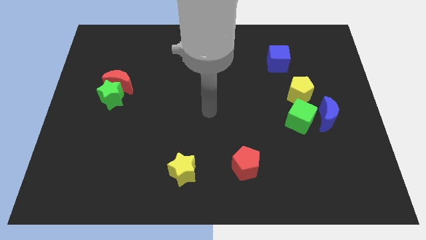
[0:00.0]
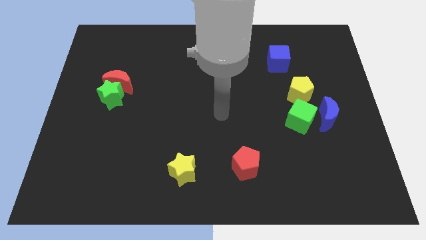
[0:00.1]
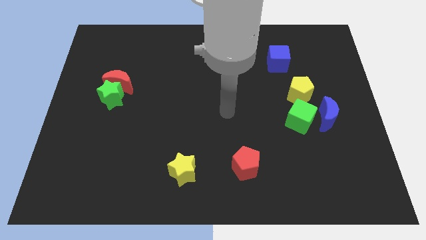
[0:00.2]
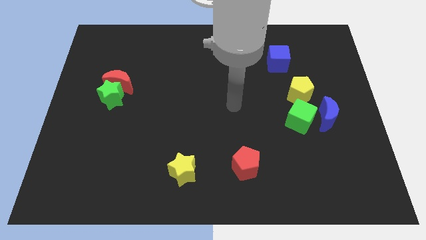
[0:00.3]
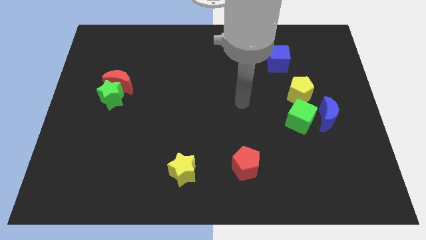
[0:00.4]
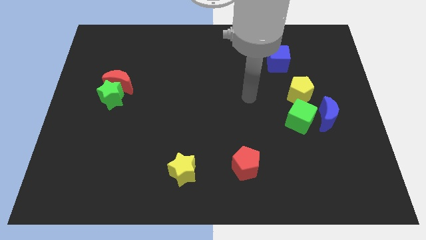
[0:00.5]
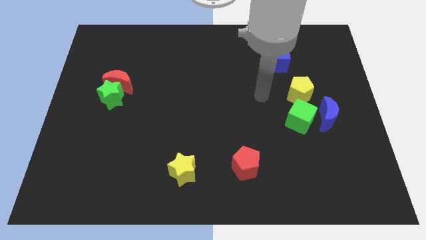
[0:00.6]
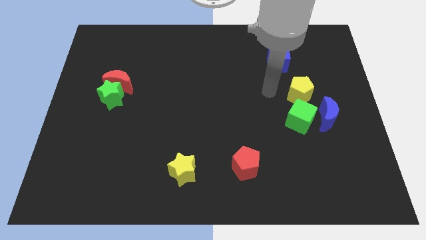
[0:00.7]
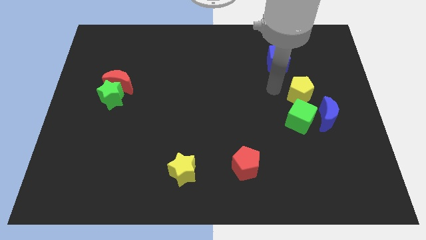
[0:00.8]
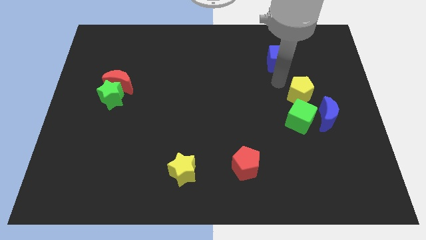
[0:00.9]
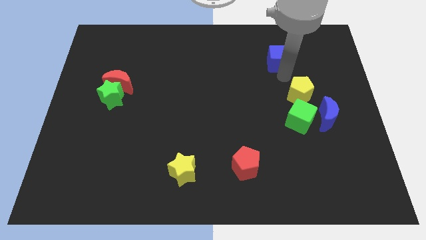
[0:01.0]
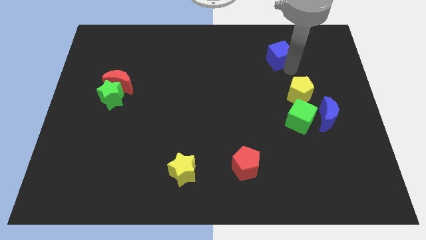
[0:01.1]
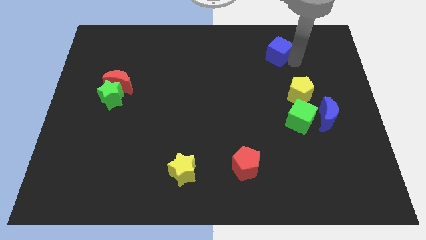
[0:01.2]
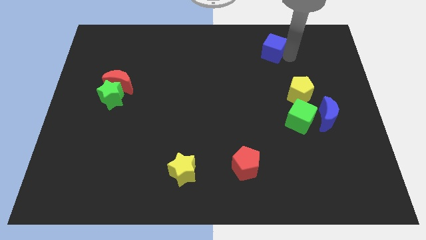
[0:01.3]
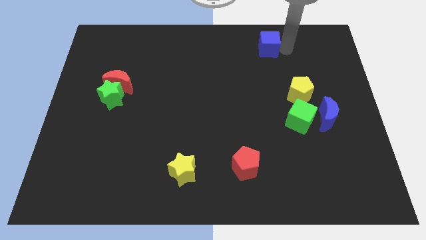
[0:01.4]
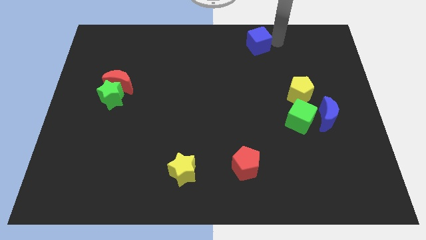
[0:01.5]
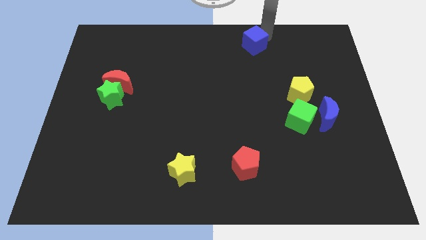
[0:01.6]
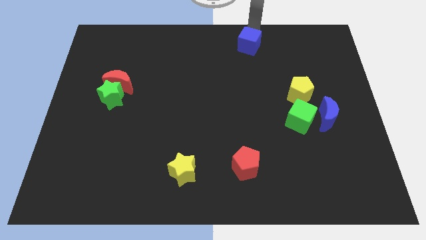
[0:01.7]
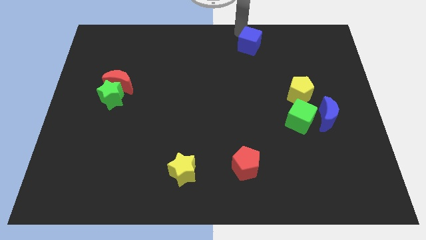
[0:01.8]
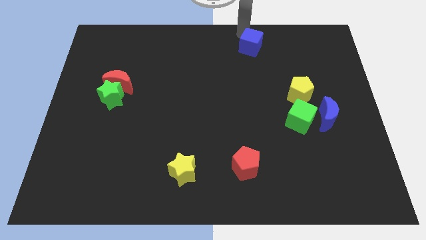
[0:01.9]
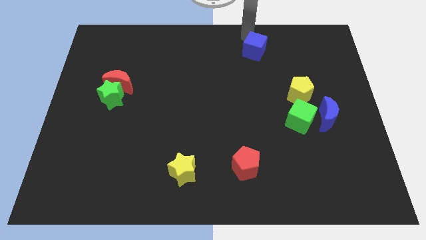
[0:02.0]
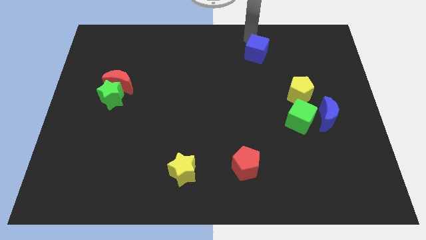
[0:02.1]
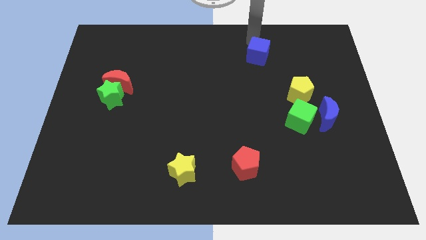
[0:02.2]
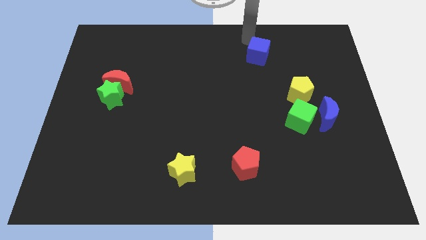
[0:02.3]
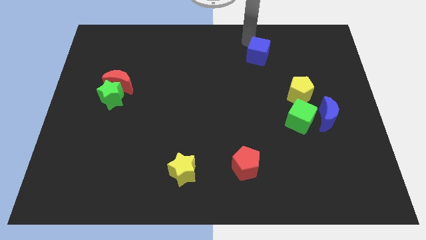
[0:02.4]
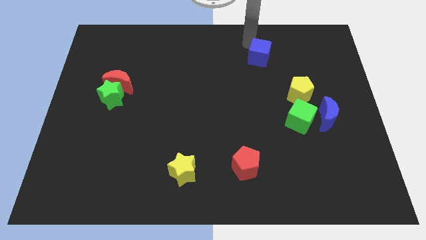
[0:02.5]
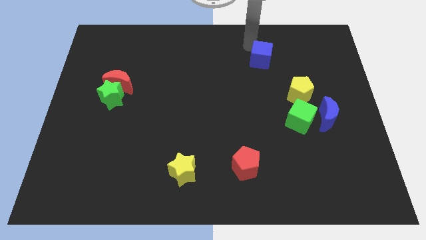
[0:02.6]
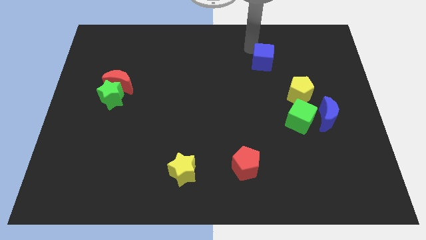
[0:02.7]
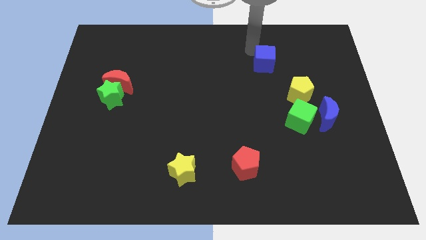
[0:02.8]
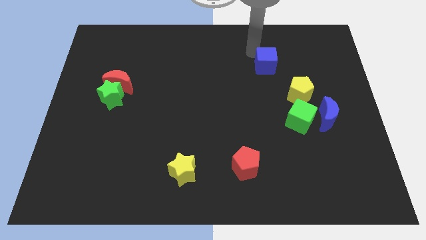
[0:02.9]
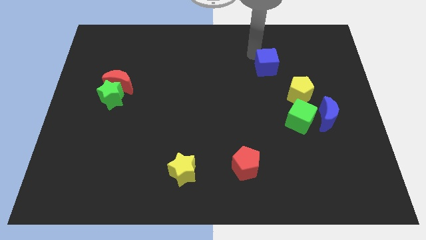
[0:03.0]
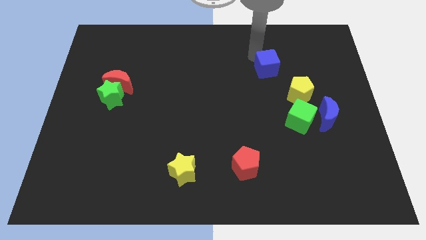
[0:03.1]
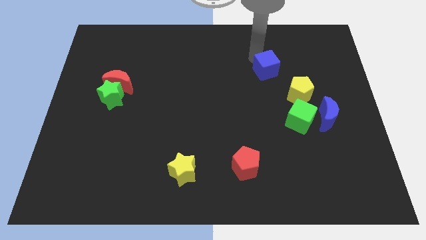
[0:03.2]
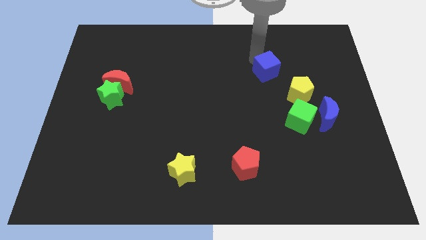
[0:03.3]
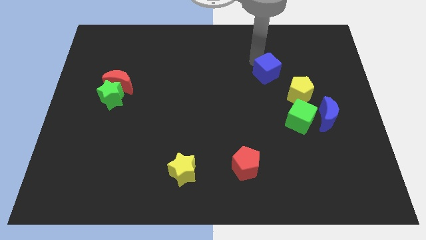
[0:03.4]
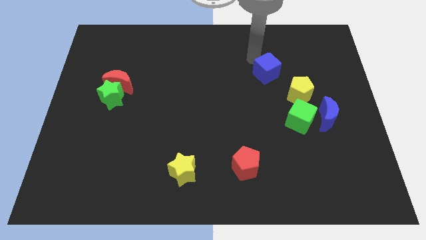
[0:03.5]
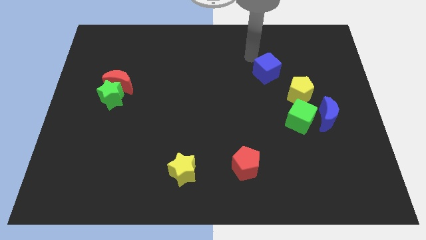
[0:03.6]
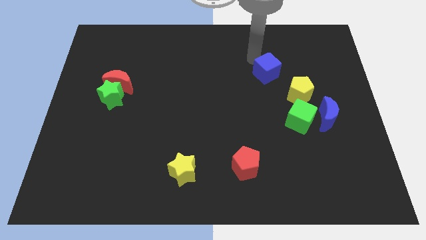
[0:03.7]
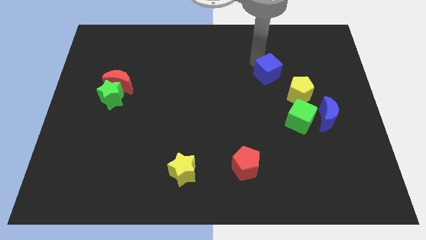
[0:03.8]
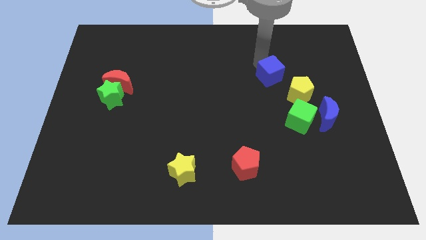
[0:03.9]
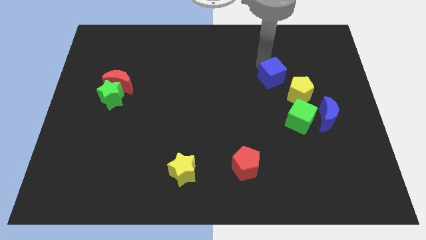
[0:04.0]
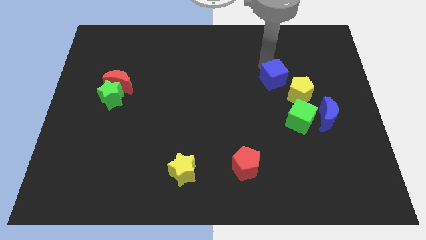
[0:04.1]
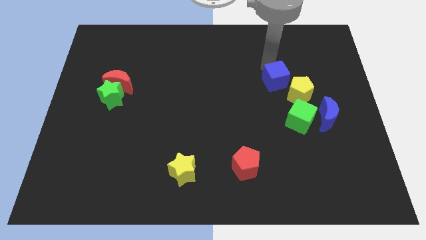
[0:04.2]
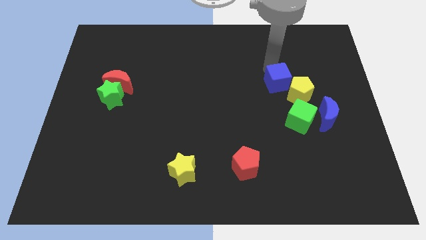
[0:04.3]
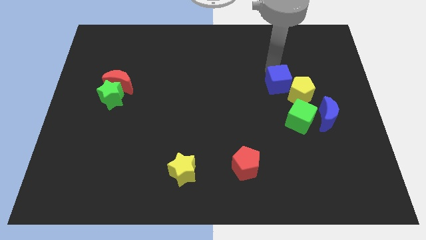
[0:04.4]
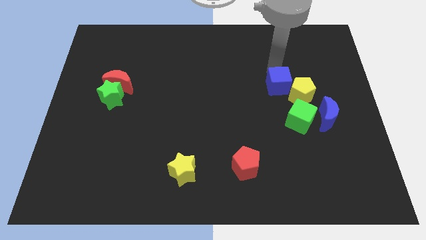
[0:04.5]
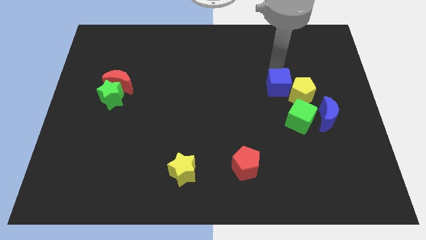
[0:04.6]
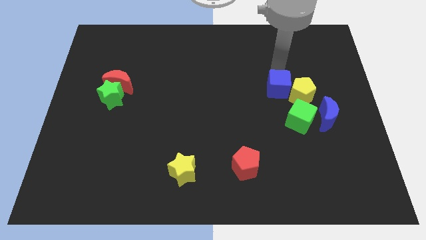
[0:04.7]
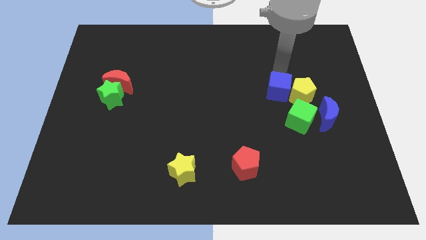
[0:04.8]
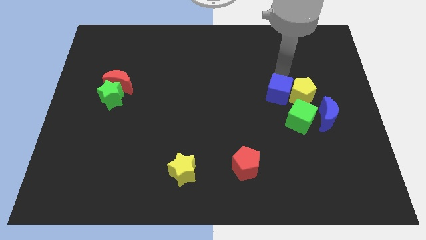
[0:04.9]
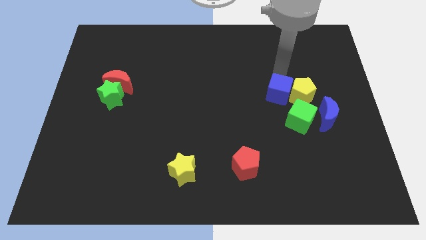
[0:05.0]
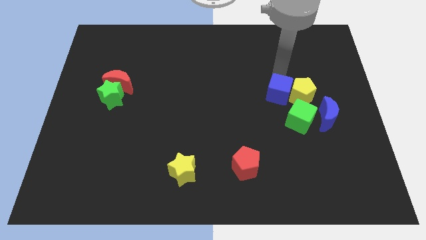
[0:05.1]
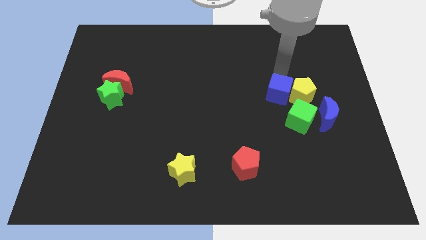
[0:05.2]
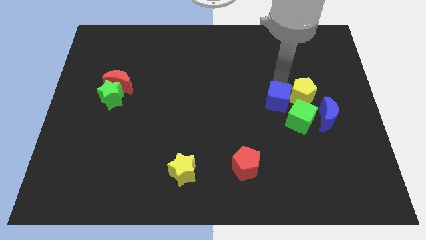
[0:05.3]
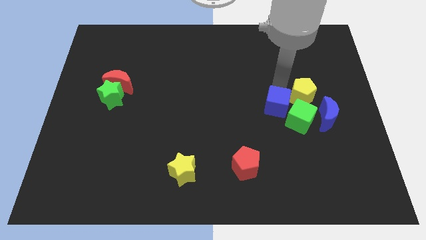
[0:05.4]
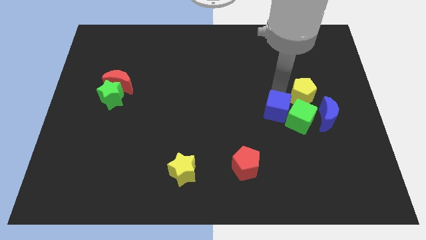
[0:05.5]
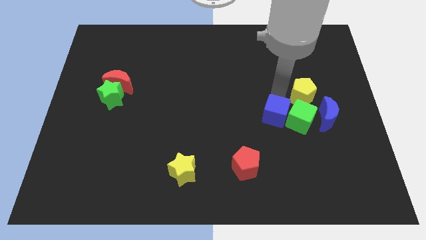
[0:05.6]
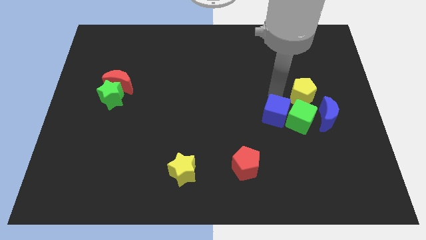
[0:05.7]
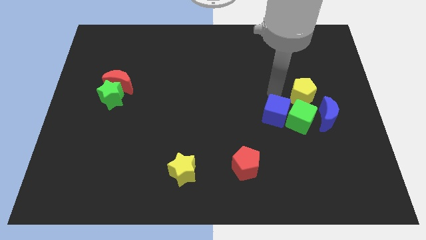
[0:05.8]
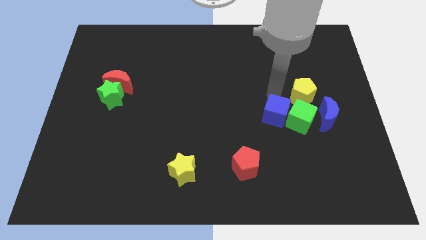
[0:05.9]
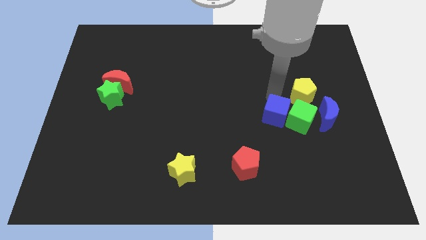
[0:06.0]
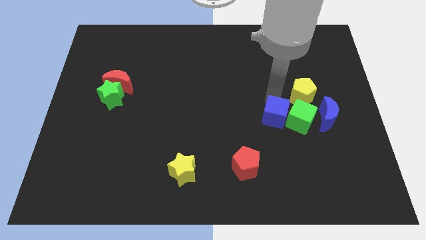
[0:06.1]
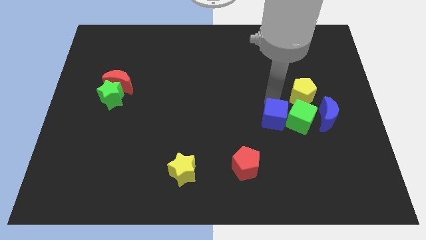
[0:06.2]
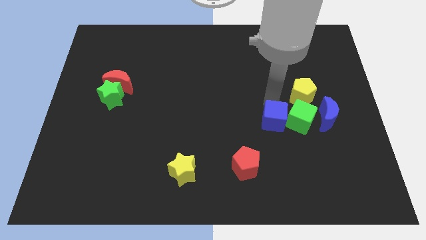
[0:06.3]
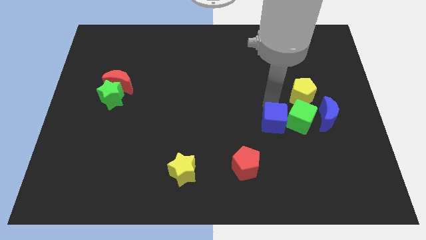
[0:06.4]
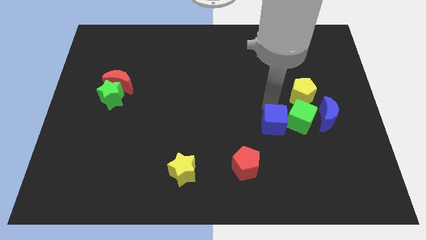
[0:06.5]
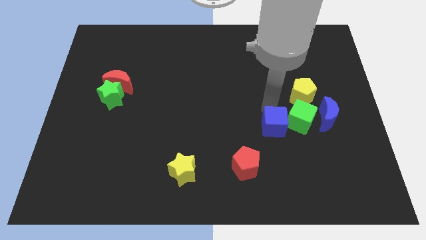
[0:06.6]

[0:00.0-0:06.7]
push the blue cube down

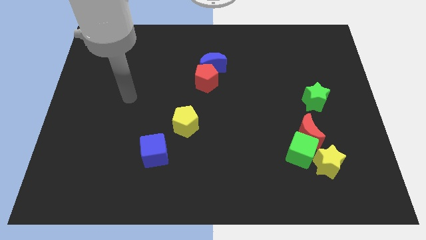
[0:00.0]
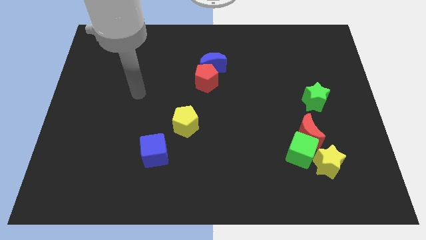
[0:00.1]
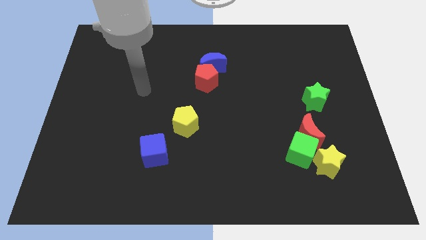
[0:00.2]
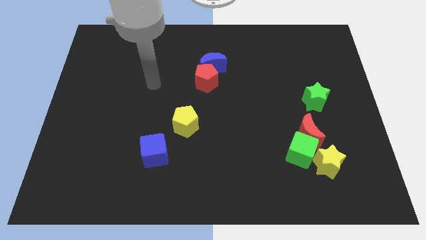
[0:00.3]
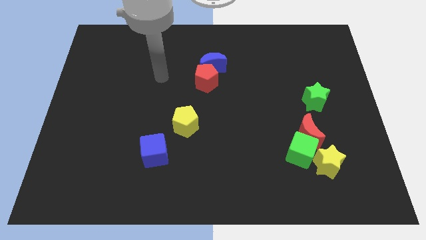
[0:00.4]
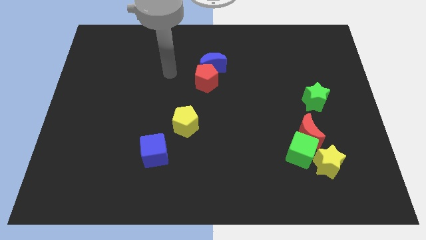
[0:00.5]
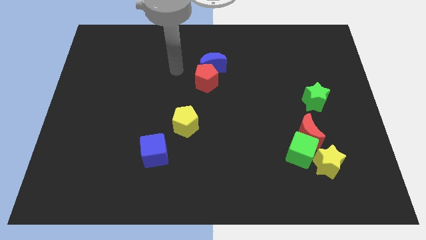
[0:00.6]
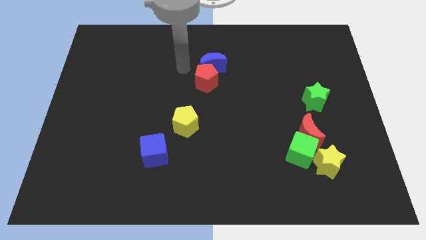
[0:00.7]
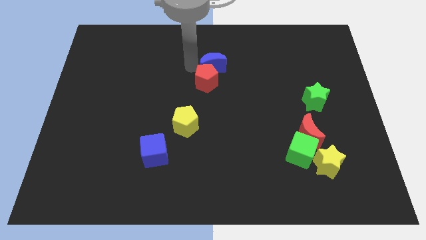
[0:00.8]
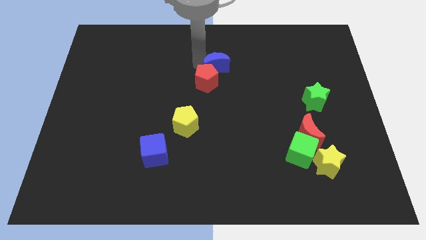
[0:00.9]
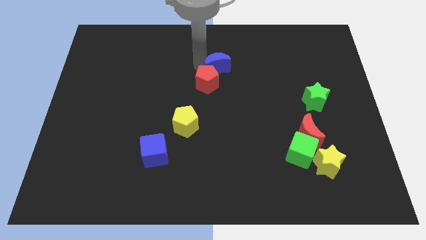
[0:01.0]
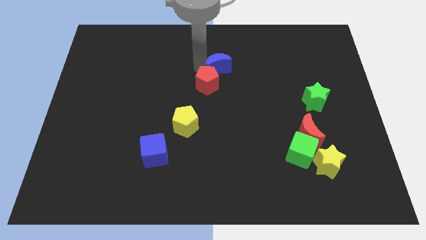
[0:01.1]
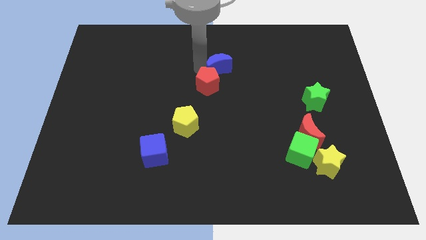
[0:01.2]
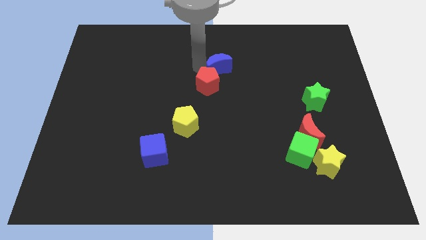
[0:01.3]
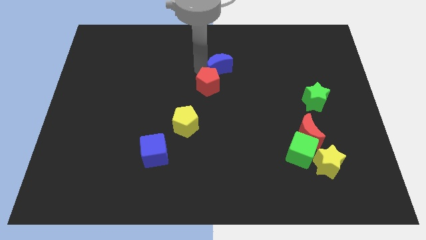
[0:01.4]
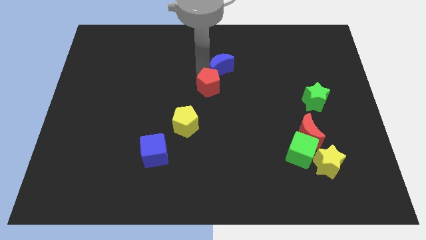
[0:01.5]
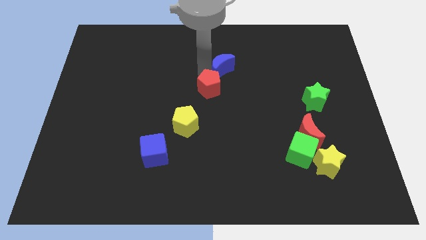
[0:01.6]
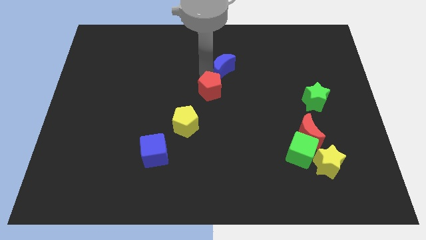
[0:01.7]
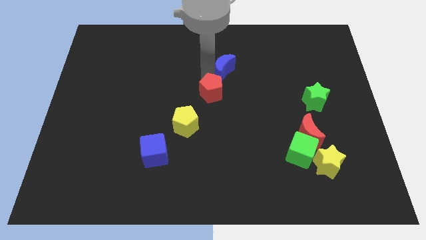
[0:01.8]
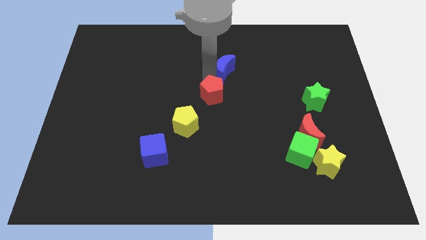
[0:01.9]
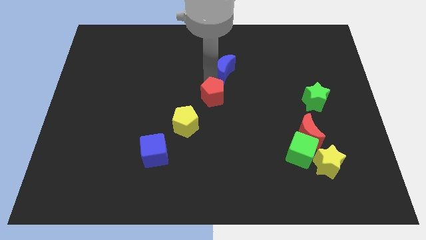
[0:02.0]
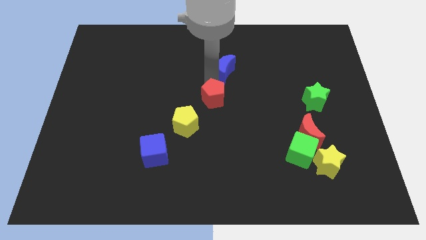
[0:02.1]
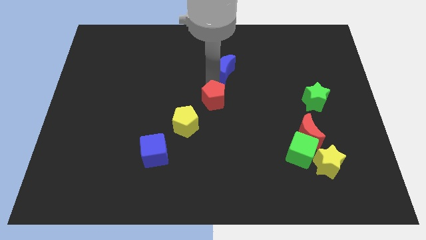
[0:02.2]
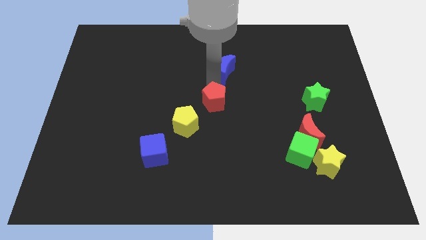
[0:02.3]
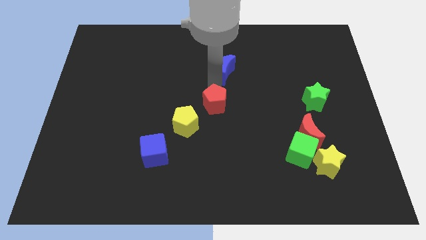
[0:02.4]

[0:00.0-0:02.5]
move the red pentagon slightly downwards
